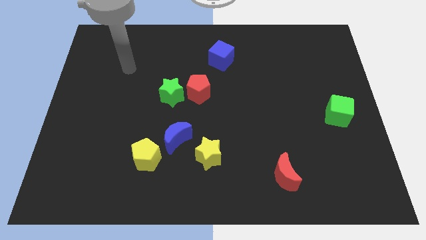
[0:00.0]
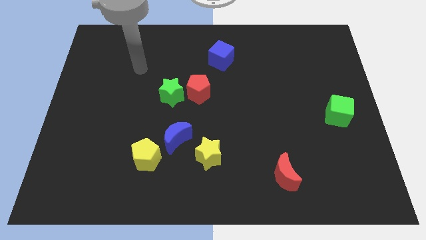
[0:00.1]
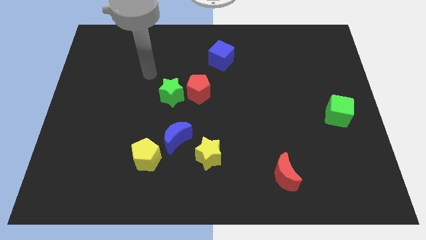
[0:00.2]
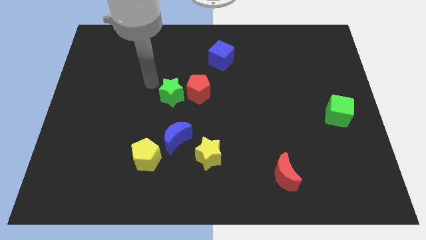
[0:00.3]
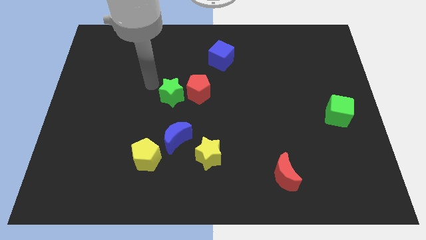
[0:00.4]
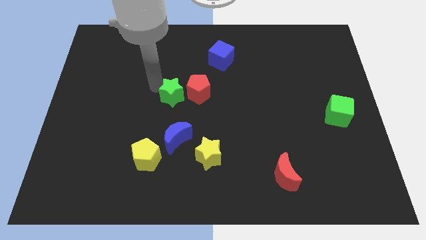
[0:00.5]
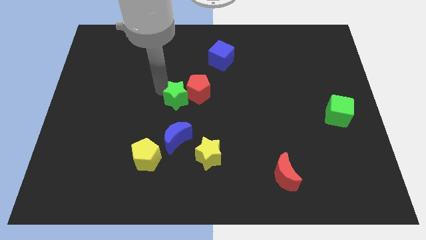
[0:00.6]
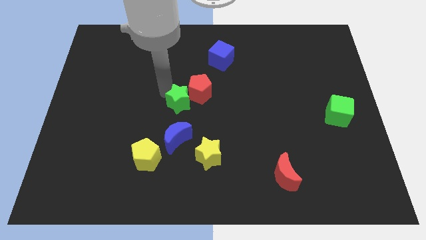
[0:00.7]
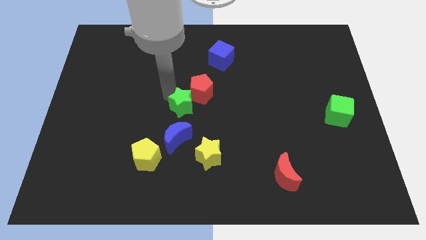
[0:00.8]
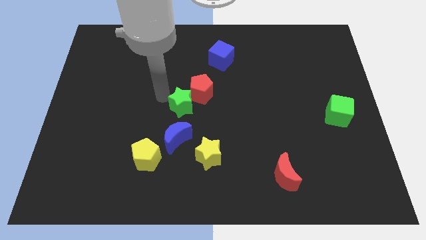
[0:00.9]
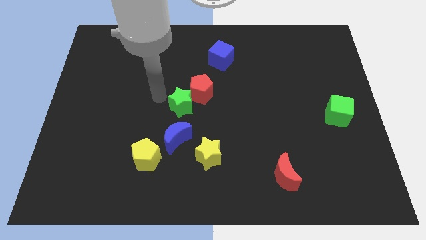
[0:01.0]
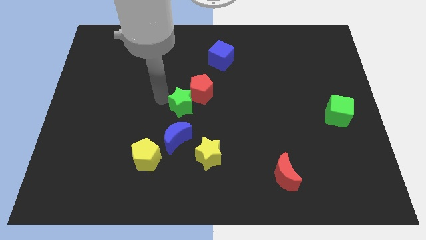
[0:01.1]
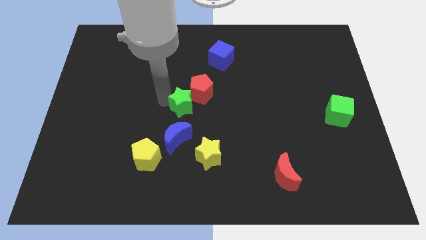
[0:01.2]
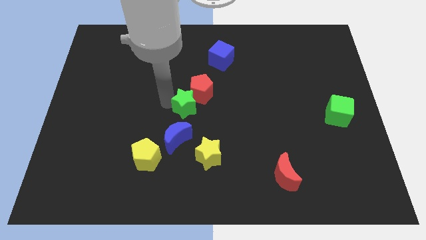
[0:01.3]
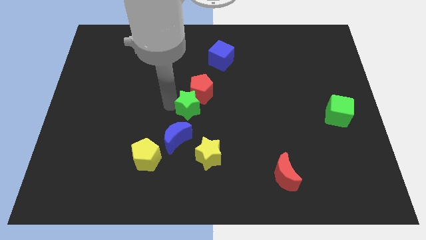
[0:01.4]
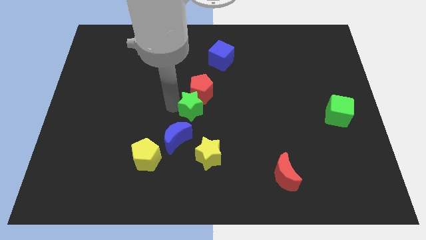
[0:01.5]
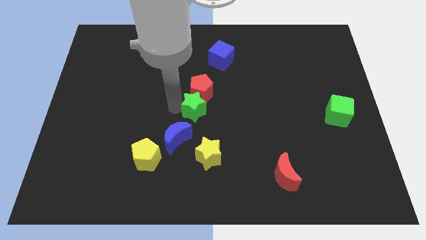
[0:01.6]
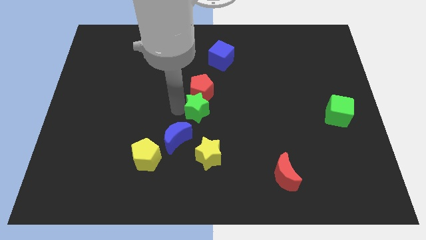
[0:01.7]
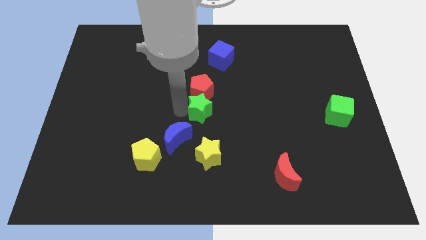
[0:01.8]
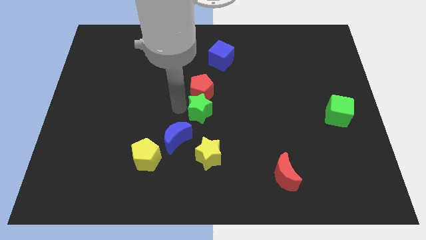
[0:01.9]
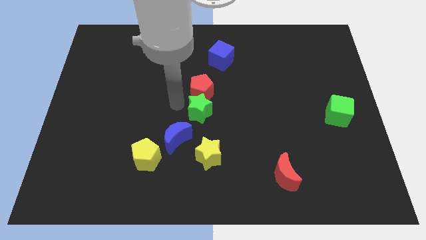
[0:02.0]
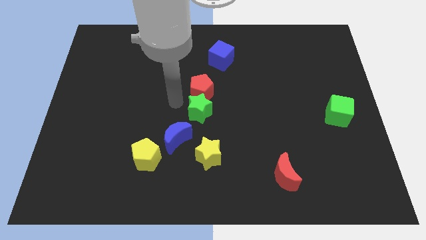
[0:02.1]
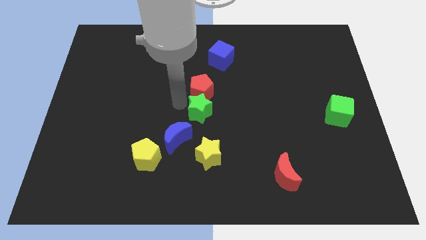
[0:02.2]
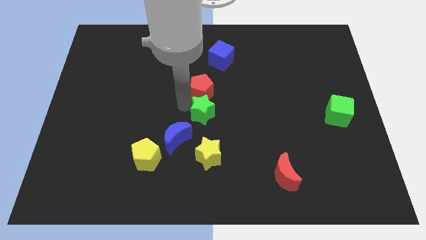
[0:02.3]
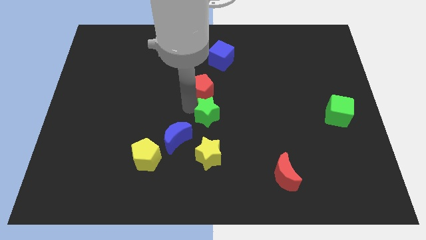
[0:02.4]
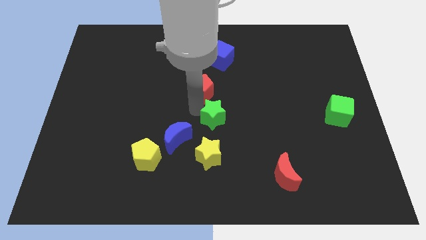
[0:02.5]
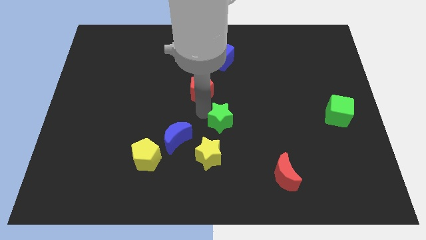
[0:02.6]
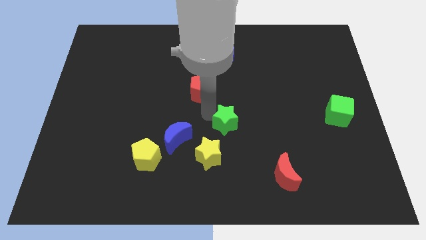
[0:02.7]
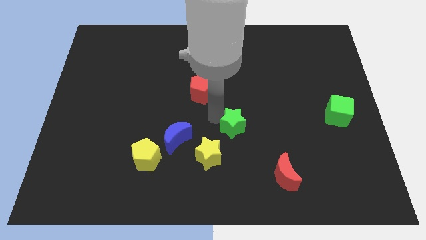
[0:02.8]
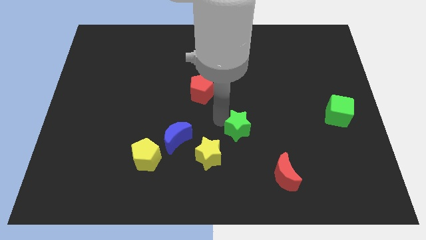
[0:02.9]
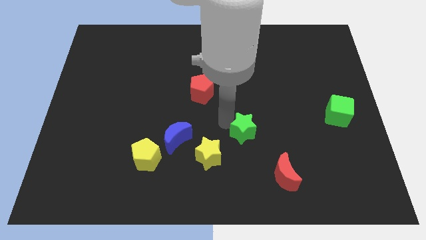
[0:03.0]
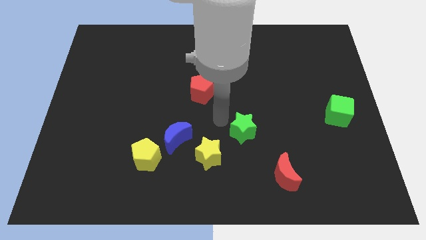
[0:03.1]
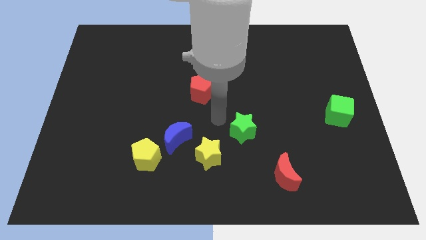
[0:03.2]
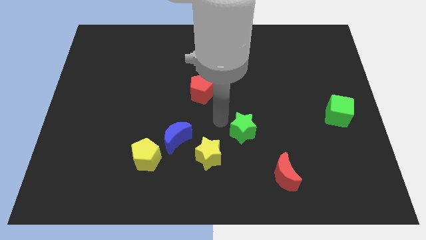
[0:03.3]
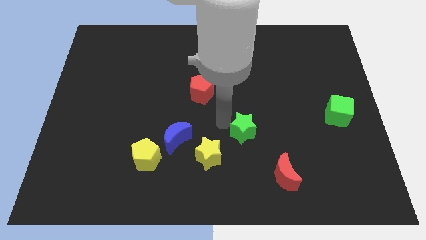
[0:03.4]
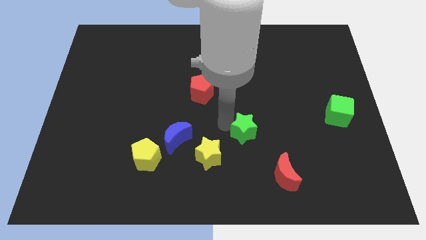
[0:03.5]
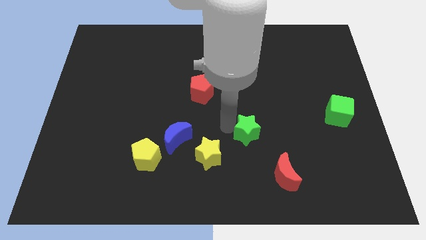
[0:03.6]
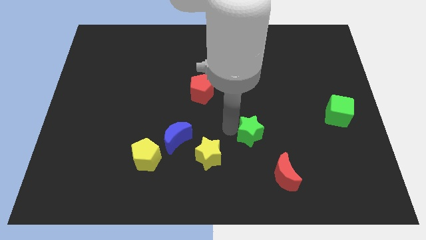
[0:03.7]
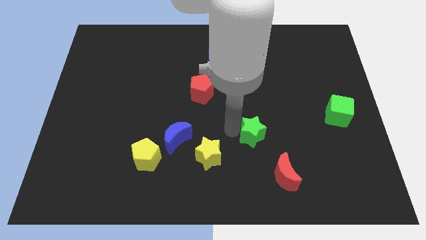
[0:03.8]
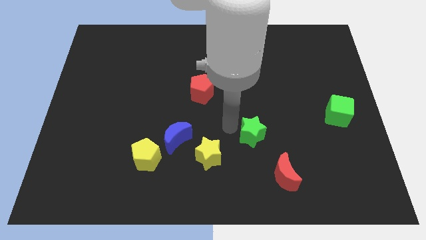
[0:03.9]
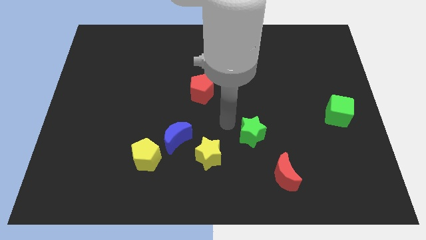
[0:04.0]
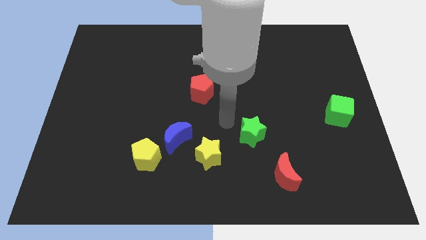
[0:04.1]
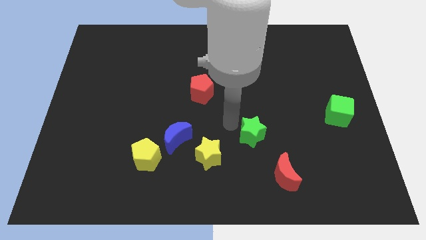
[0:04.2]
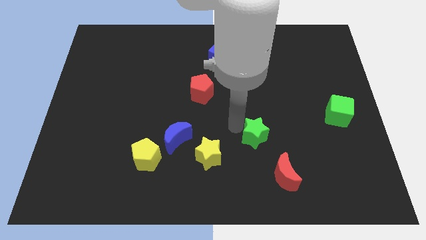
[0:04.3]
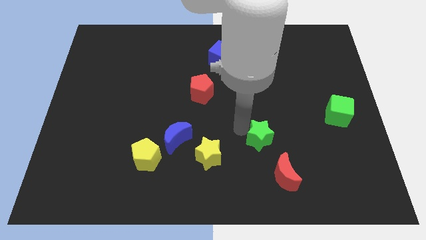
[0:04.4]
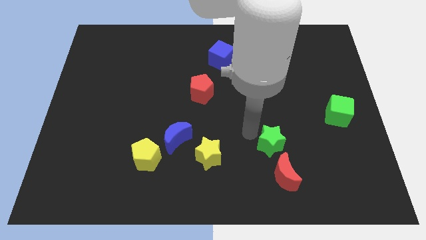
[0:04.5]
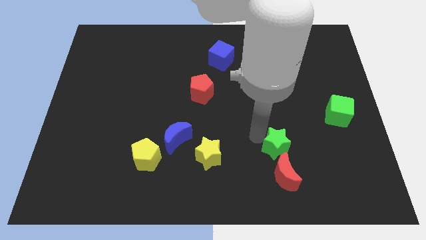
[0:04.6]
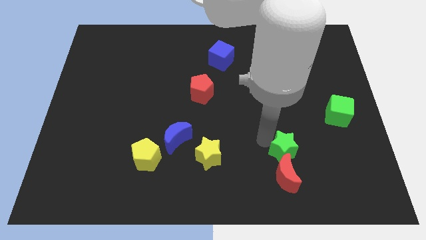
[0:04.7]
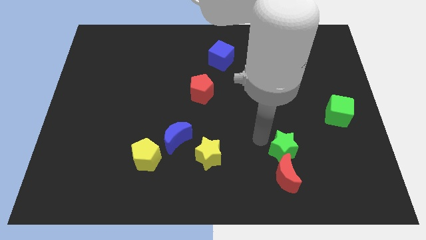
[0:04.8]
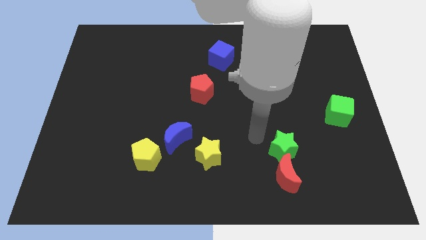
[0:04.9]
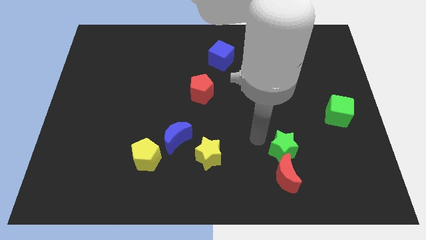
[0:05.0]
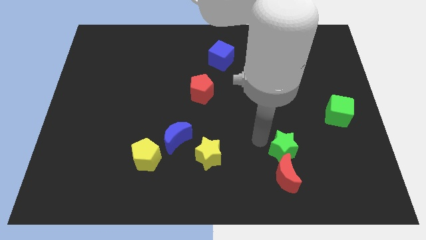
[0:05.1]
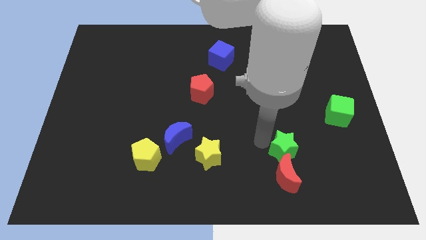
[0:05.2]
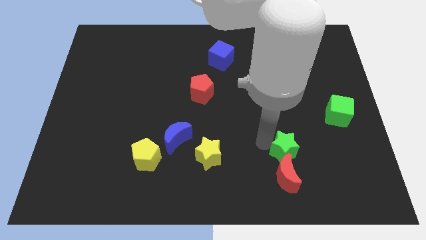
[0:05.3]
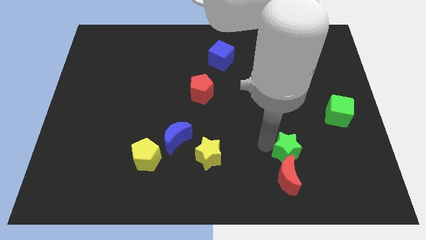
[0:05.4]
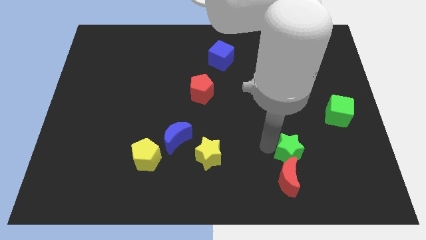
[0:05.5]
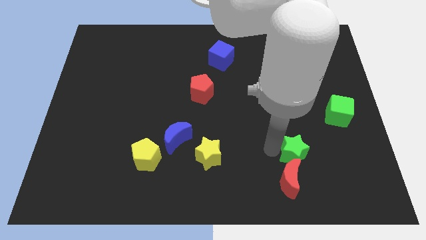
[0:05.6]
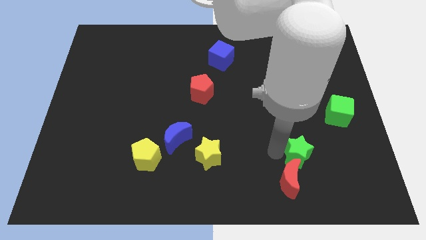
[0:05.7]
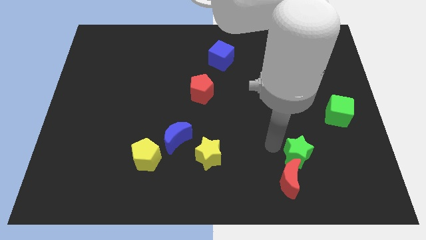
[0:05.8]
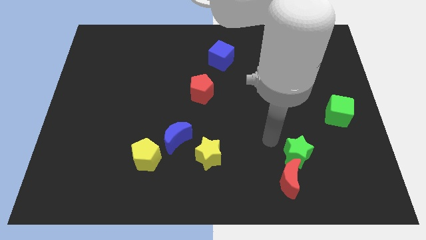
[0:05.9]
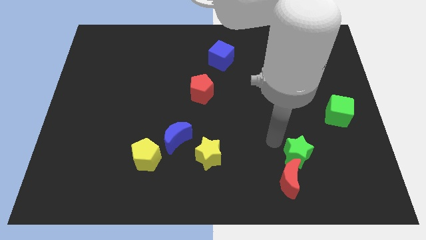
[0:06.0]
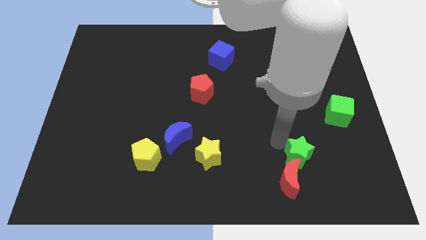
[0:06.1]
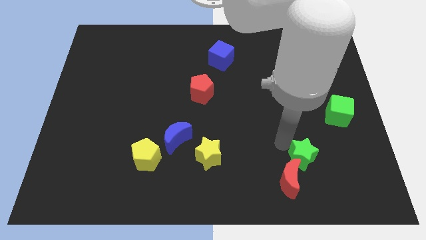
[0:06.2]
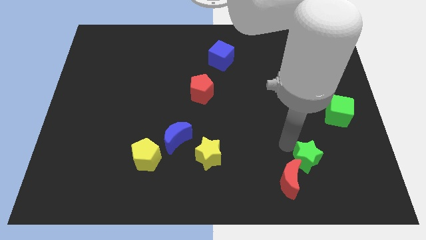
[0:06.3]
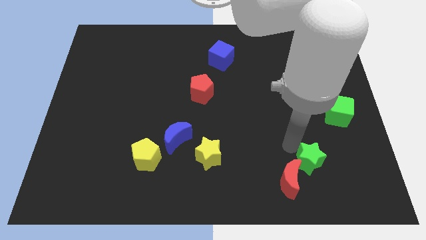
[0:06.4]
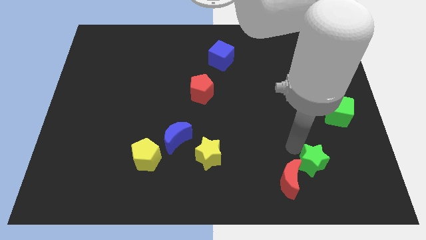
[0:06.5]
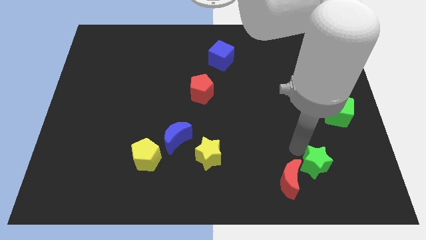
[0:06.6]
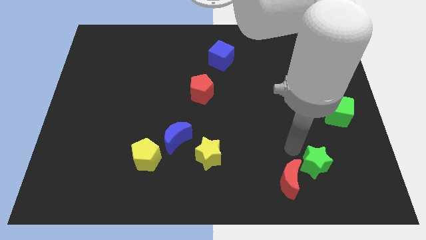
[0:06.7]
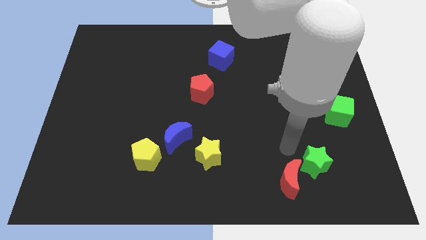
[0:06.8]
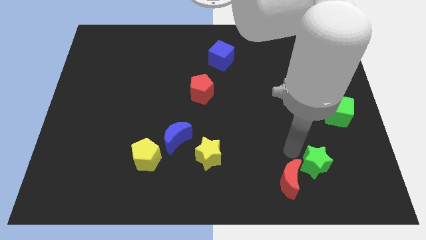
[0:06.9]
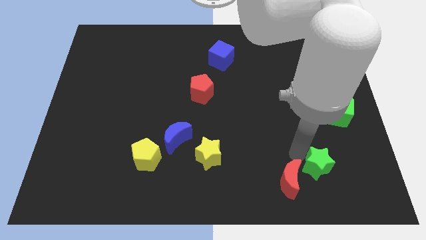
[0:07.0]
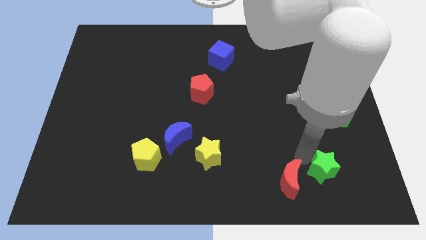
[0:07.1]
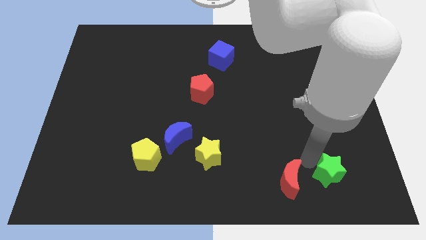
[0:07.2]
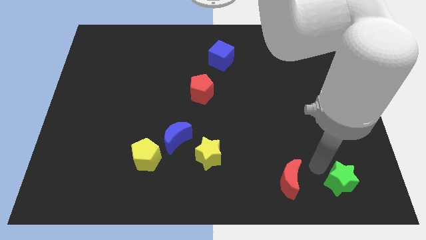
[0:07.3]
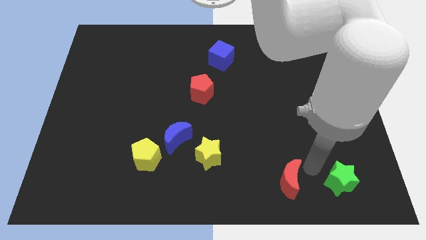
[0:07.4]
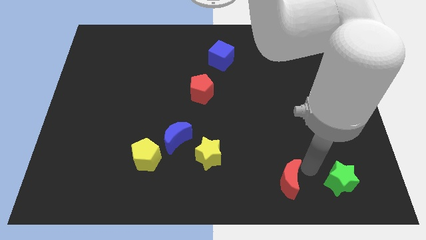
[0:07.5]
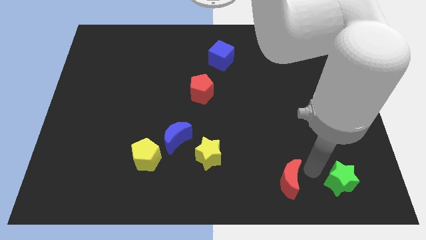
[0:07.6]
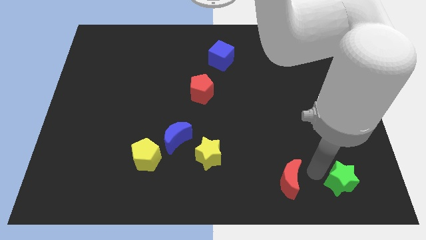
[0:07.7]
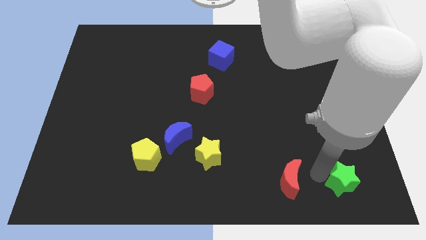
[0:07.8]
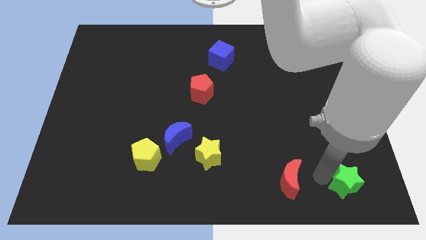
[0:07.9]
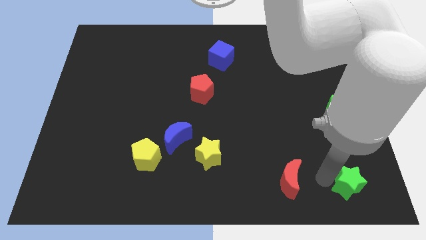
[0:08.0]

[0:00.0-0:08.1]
slide the green star to the lower right corner
